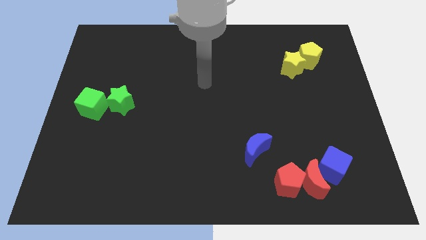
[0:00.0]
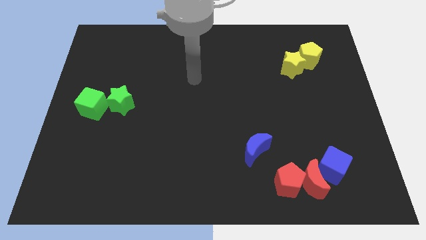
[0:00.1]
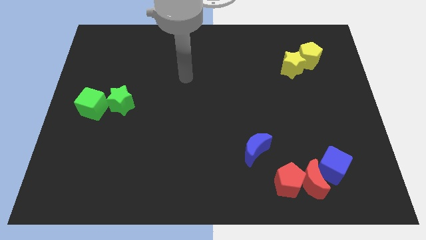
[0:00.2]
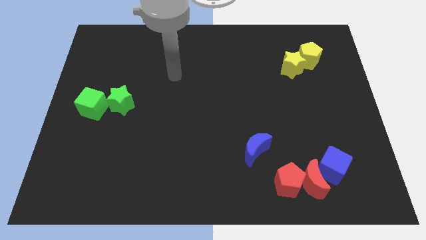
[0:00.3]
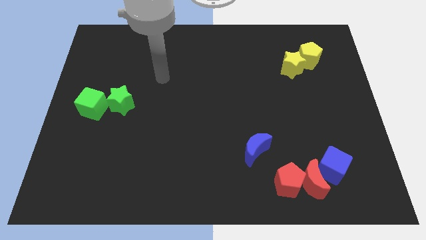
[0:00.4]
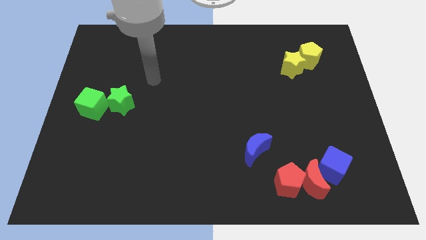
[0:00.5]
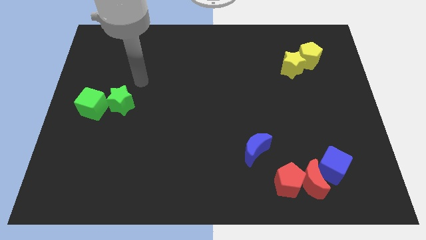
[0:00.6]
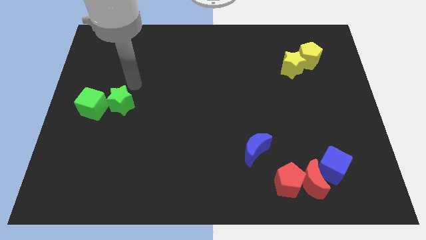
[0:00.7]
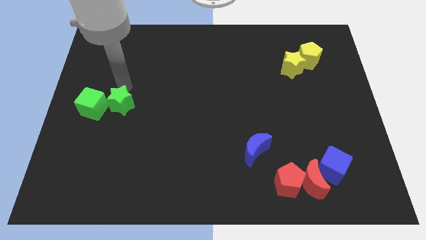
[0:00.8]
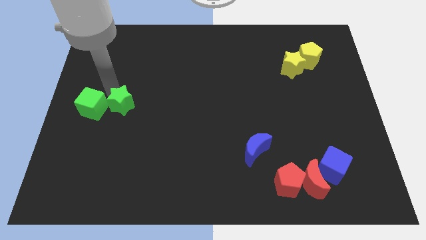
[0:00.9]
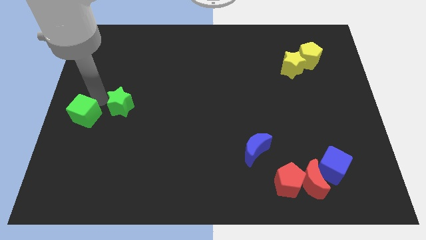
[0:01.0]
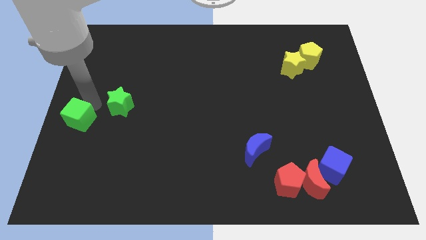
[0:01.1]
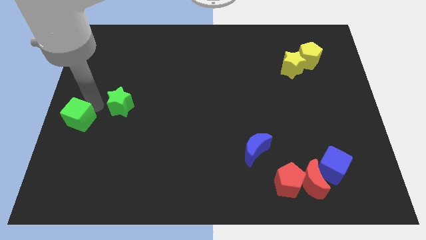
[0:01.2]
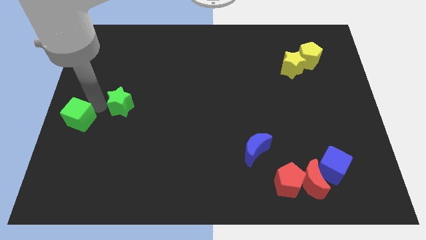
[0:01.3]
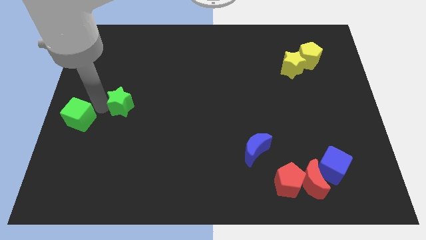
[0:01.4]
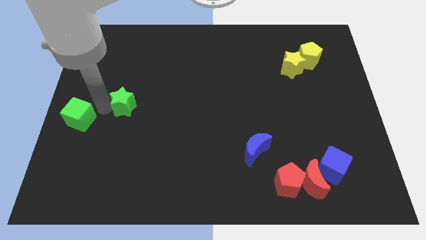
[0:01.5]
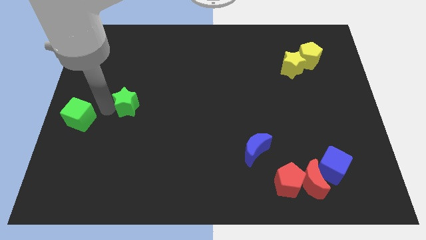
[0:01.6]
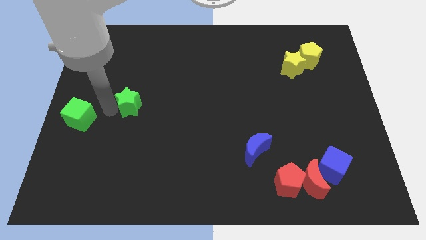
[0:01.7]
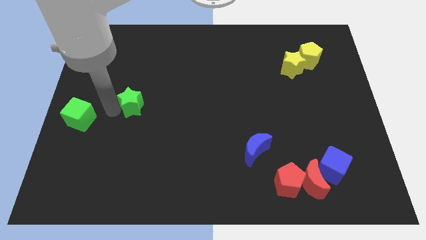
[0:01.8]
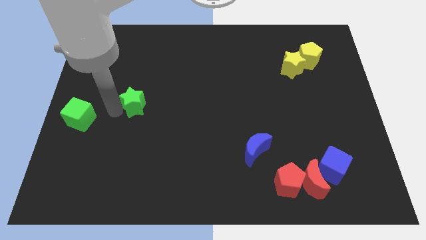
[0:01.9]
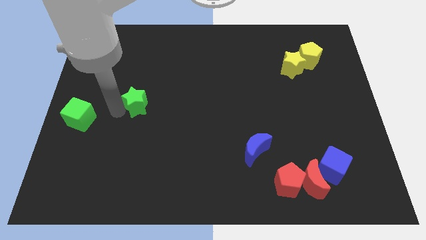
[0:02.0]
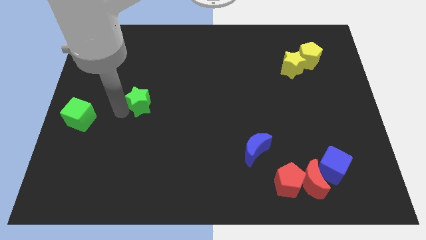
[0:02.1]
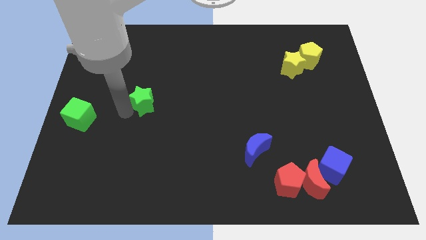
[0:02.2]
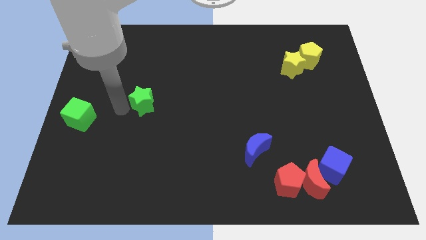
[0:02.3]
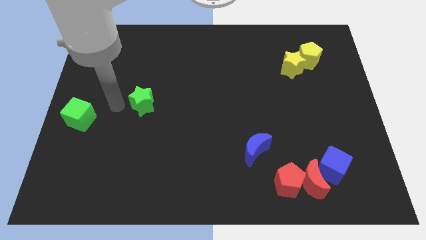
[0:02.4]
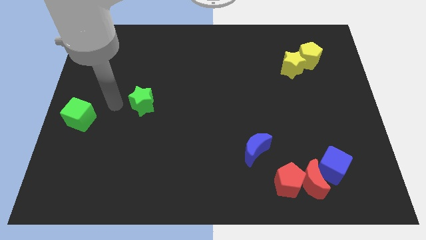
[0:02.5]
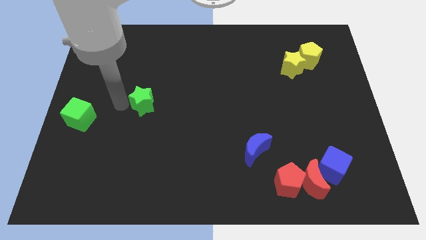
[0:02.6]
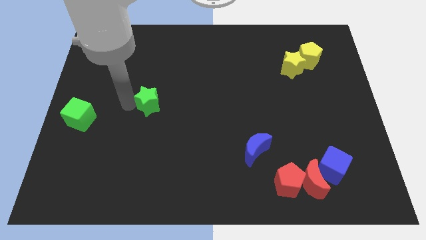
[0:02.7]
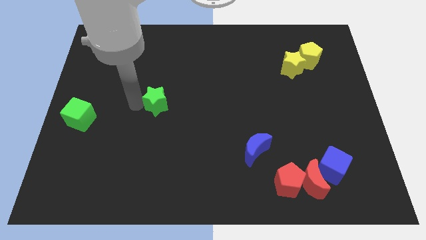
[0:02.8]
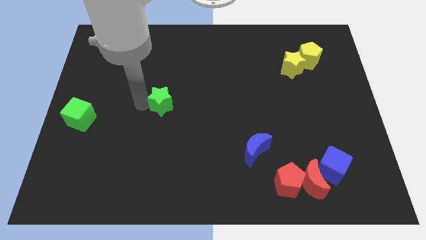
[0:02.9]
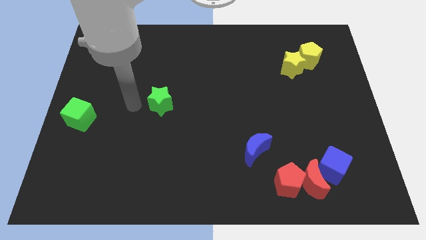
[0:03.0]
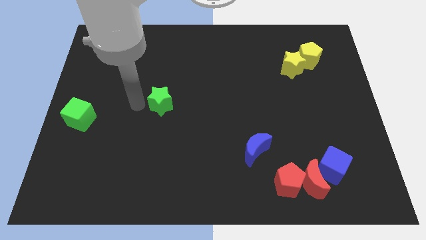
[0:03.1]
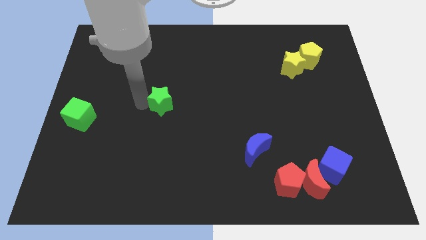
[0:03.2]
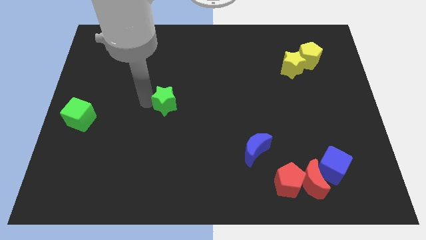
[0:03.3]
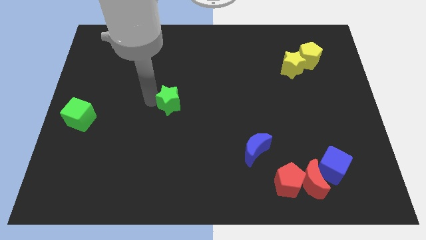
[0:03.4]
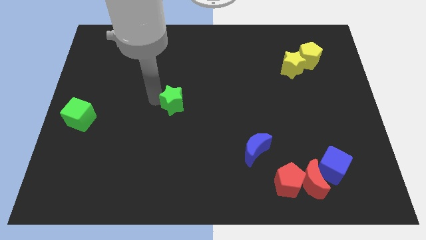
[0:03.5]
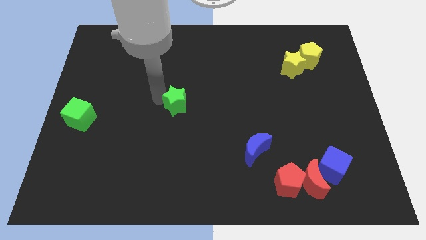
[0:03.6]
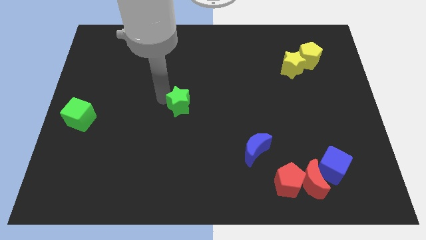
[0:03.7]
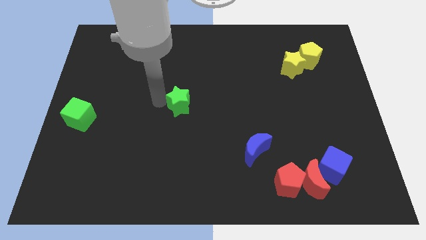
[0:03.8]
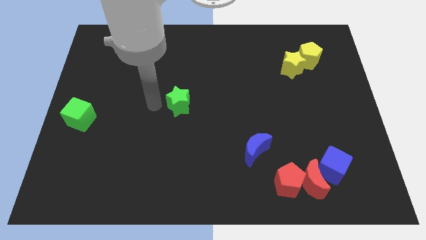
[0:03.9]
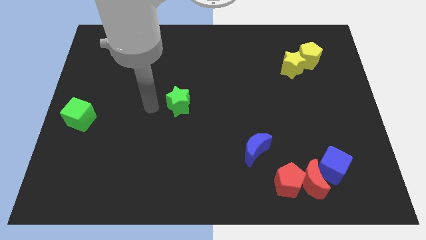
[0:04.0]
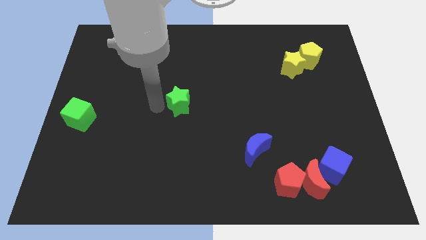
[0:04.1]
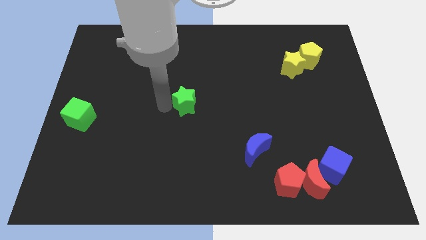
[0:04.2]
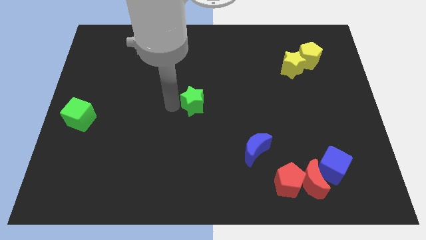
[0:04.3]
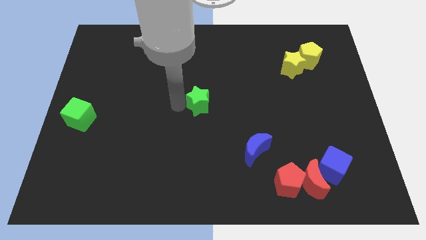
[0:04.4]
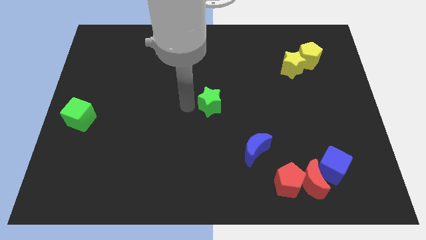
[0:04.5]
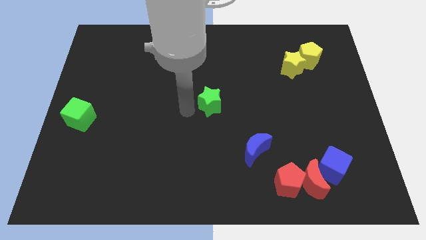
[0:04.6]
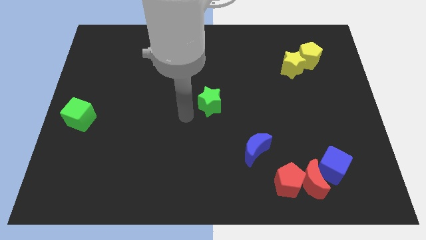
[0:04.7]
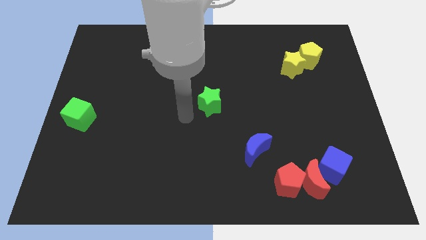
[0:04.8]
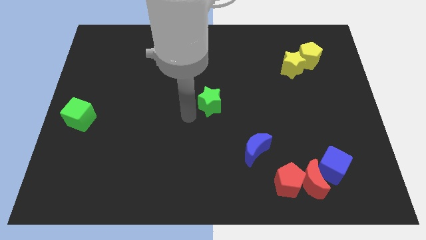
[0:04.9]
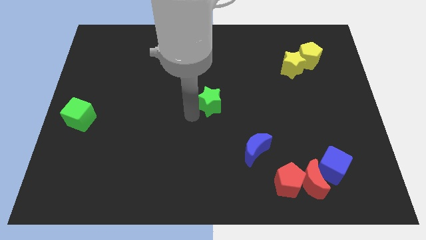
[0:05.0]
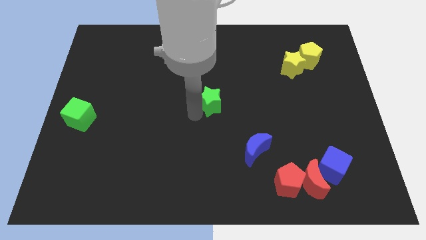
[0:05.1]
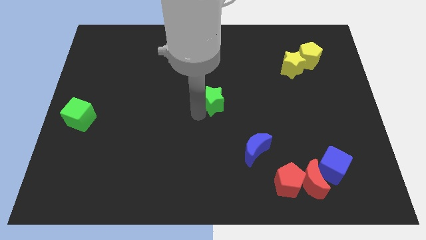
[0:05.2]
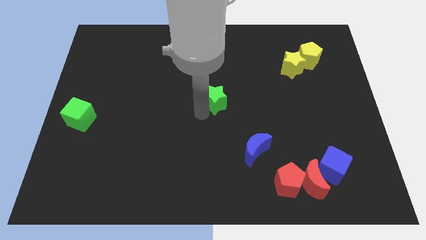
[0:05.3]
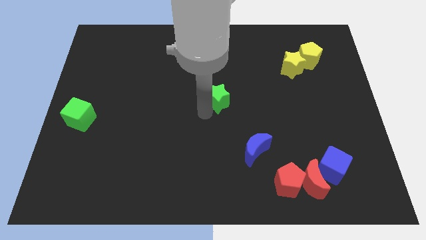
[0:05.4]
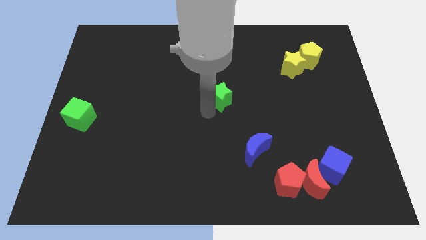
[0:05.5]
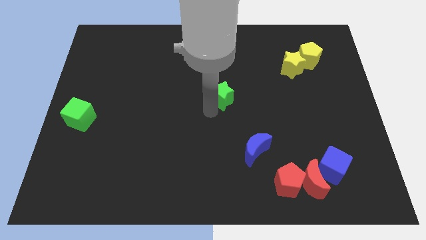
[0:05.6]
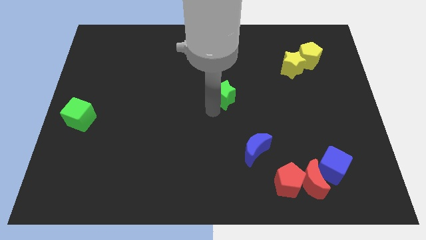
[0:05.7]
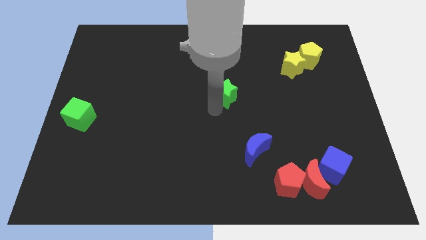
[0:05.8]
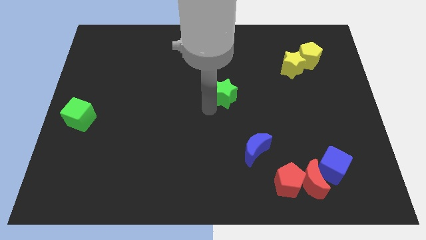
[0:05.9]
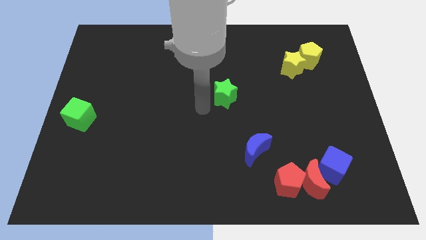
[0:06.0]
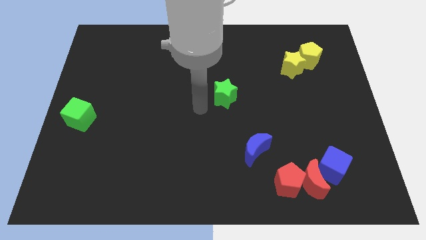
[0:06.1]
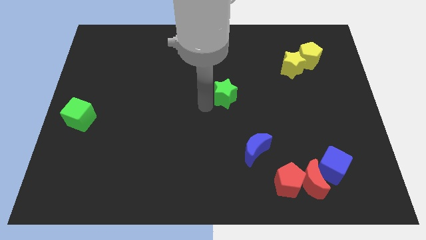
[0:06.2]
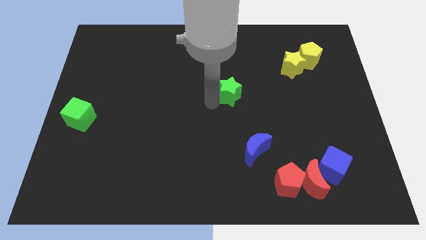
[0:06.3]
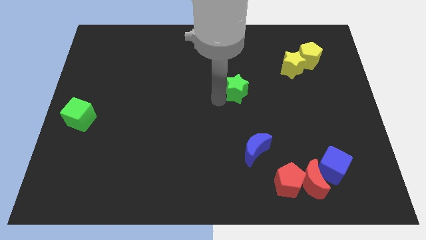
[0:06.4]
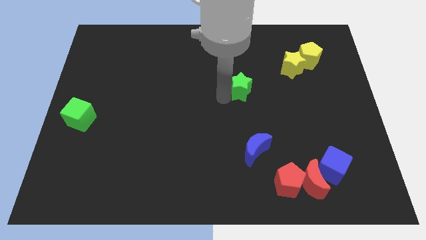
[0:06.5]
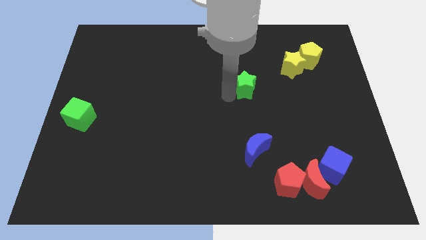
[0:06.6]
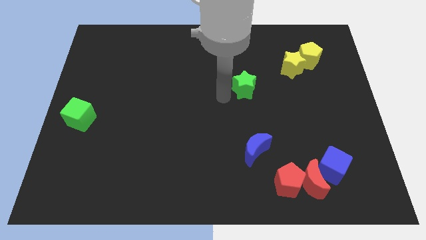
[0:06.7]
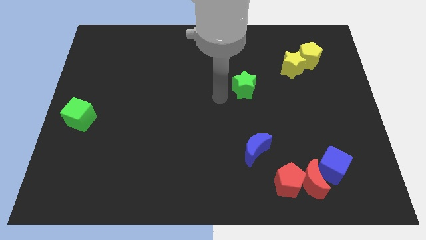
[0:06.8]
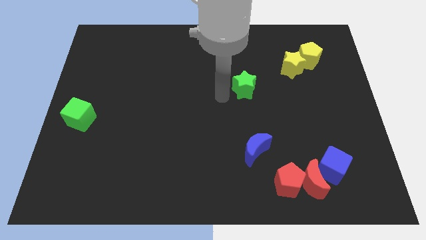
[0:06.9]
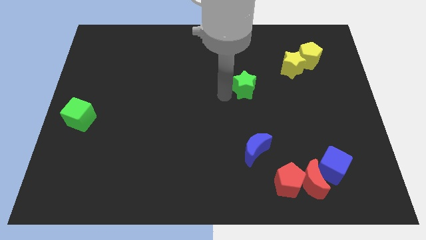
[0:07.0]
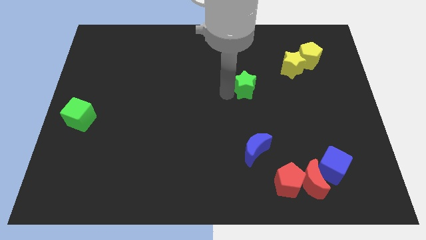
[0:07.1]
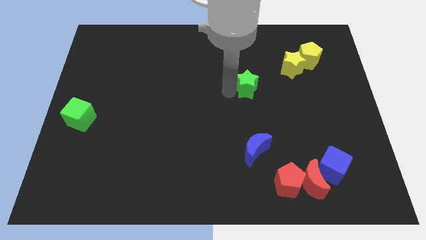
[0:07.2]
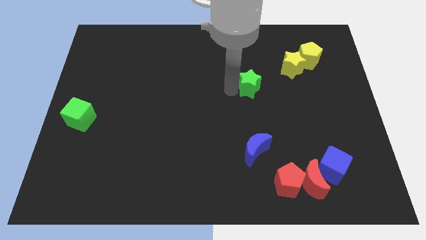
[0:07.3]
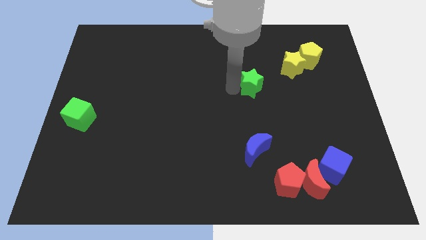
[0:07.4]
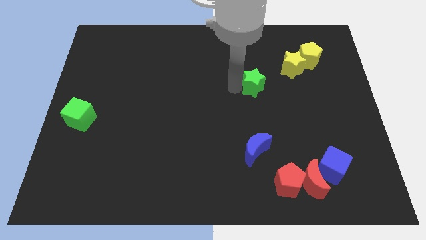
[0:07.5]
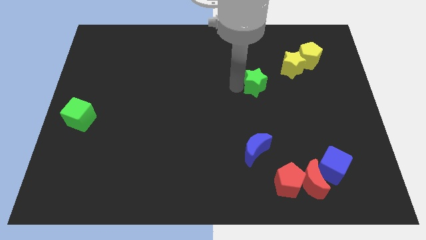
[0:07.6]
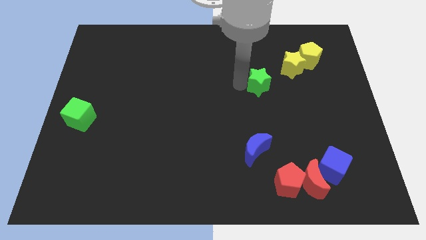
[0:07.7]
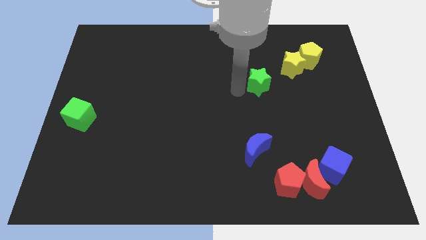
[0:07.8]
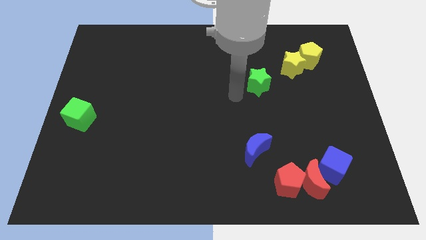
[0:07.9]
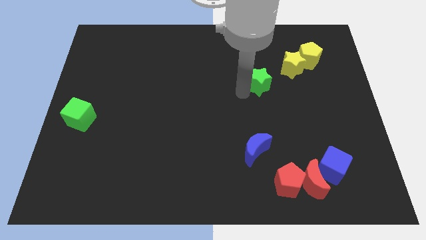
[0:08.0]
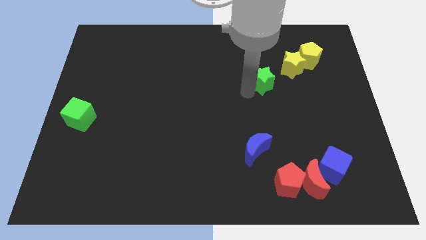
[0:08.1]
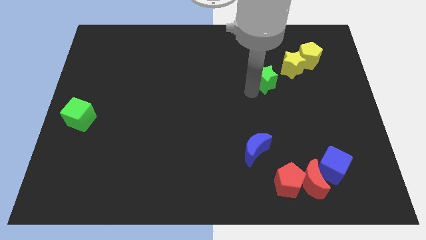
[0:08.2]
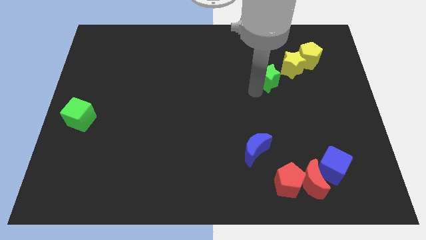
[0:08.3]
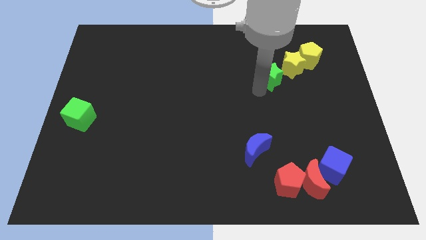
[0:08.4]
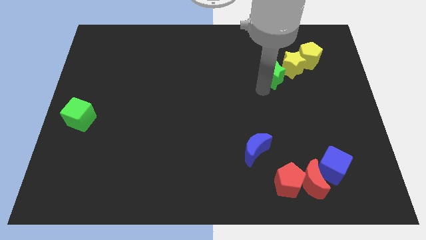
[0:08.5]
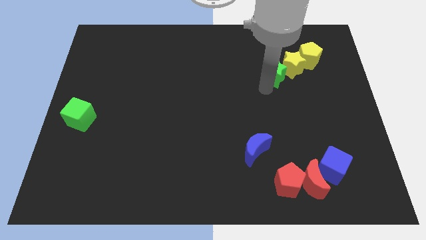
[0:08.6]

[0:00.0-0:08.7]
move the green star towards the yellow star
